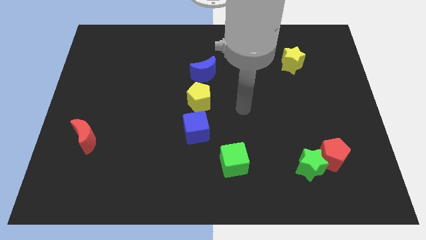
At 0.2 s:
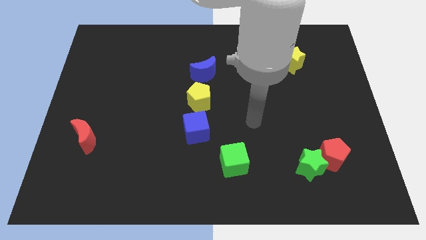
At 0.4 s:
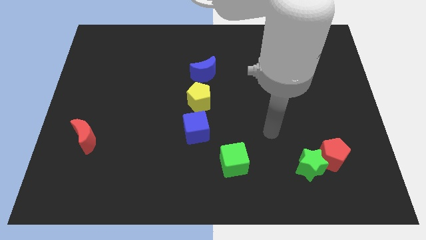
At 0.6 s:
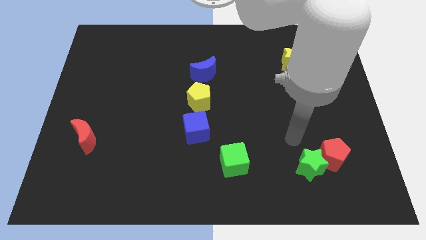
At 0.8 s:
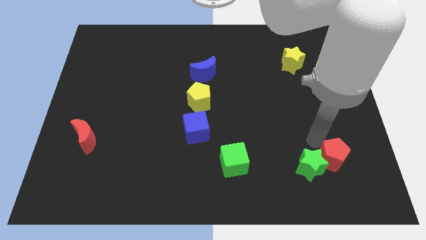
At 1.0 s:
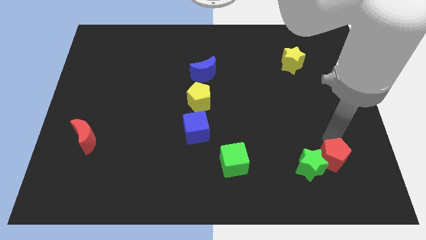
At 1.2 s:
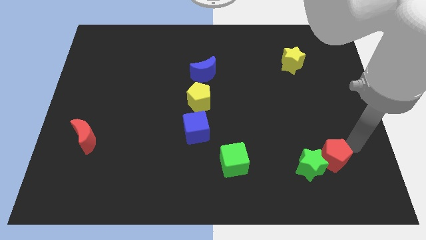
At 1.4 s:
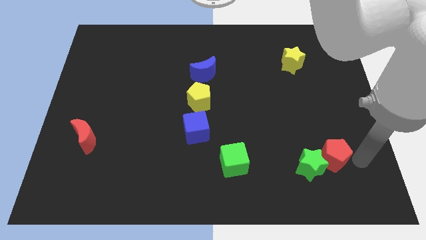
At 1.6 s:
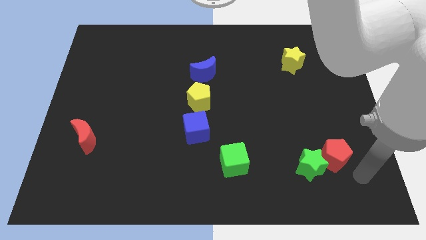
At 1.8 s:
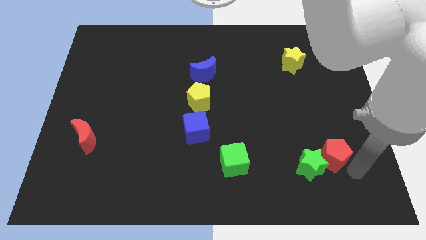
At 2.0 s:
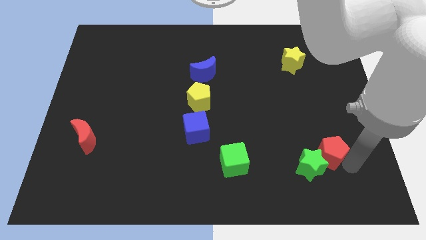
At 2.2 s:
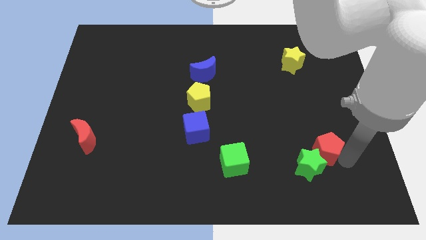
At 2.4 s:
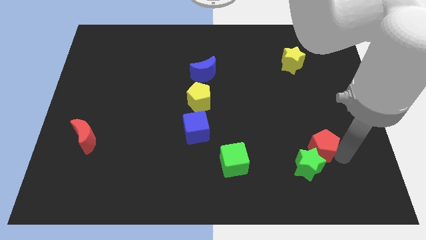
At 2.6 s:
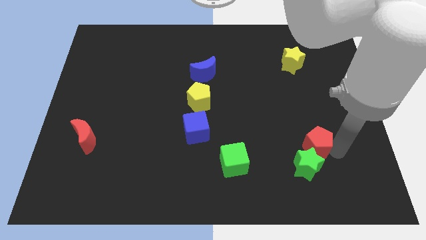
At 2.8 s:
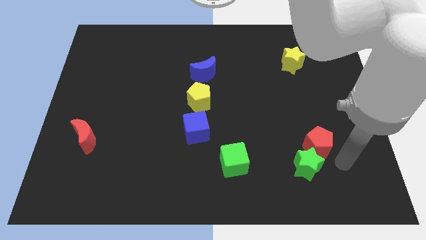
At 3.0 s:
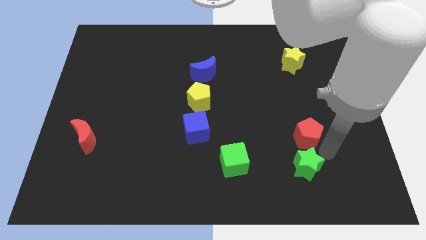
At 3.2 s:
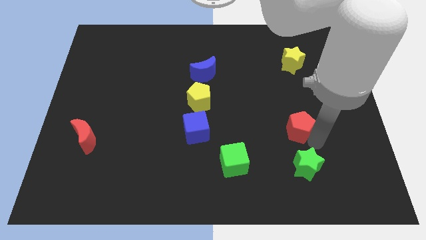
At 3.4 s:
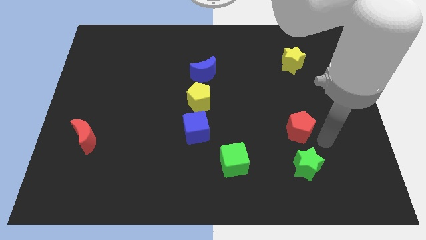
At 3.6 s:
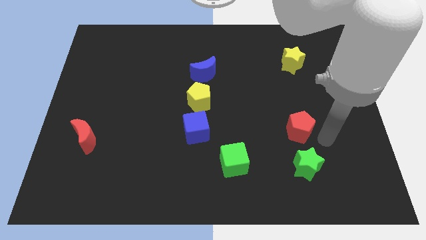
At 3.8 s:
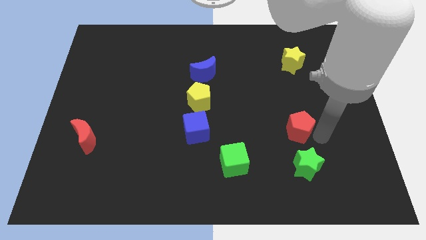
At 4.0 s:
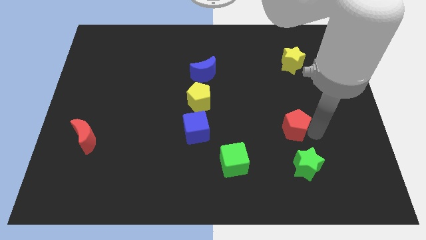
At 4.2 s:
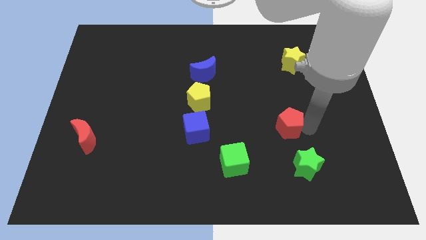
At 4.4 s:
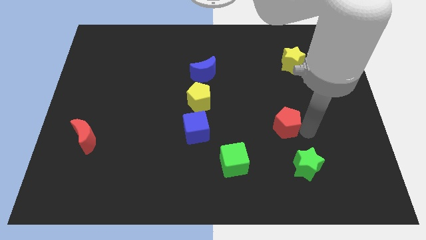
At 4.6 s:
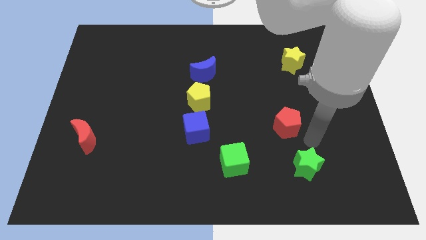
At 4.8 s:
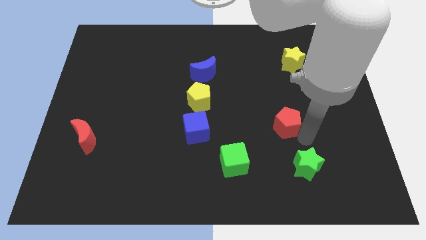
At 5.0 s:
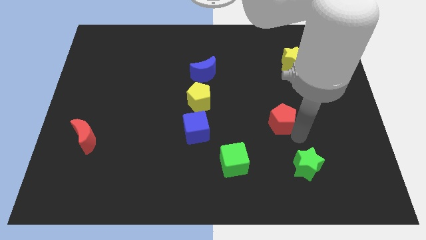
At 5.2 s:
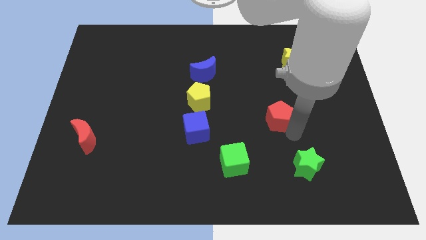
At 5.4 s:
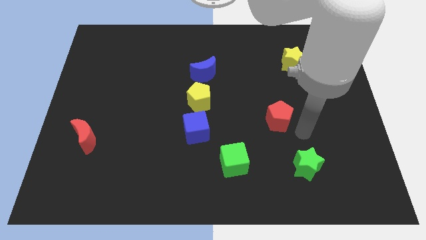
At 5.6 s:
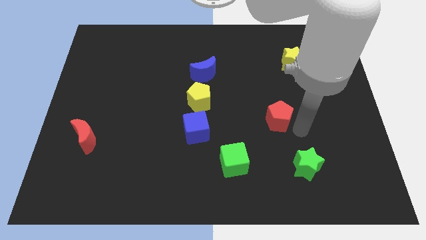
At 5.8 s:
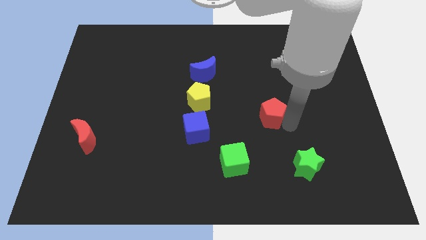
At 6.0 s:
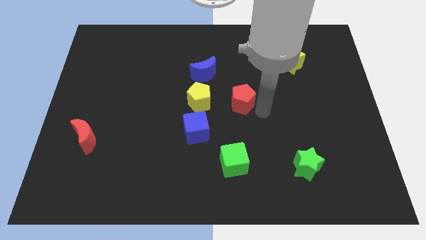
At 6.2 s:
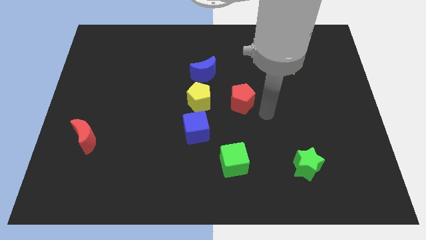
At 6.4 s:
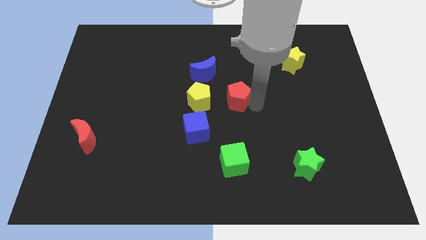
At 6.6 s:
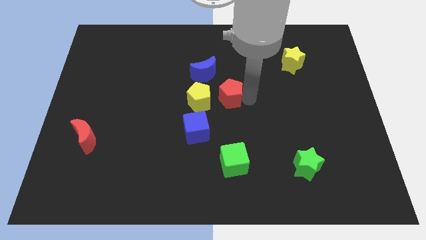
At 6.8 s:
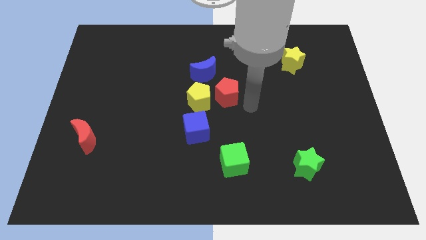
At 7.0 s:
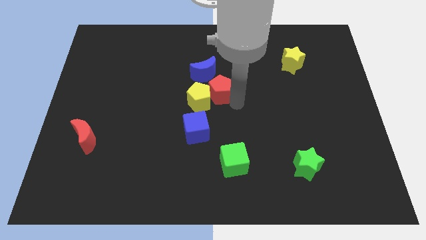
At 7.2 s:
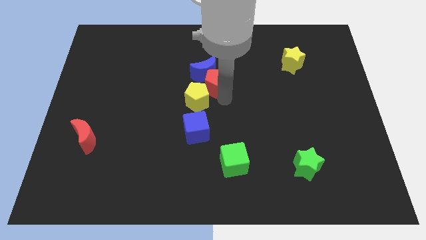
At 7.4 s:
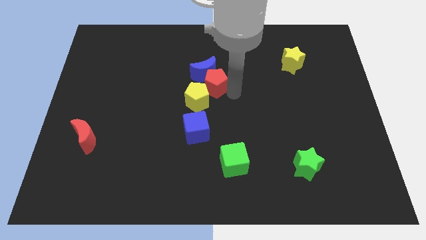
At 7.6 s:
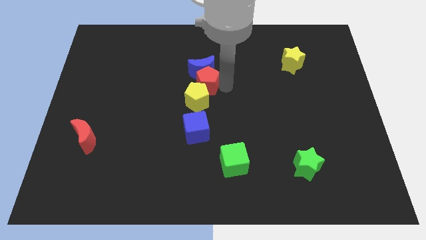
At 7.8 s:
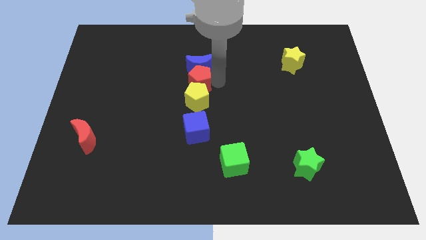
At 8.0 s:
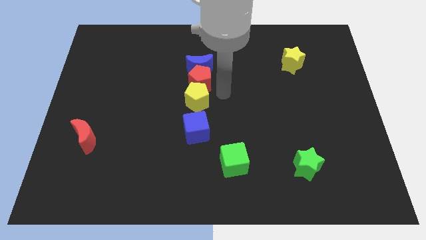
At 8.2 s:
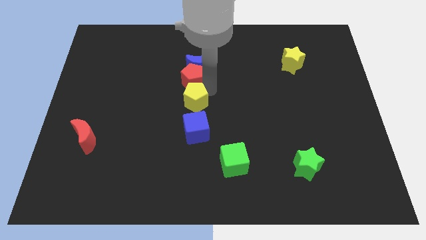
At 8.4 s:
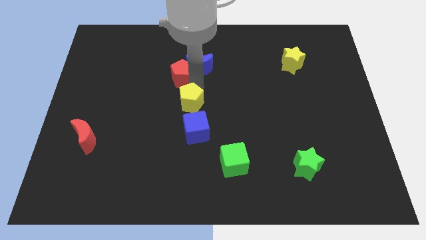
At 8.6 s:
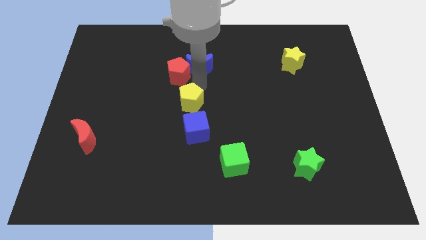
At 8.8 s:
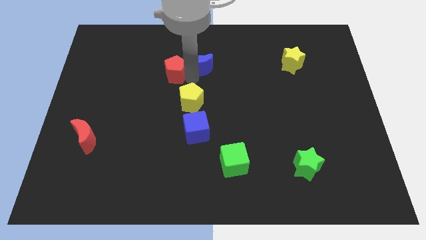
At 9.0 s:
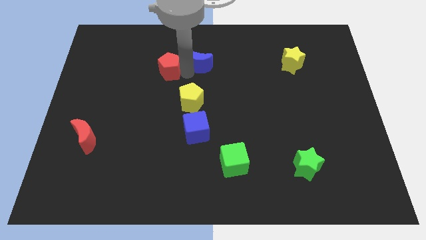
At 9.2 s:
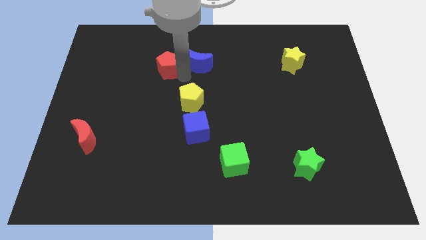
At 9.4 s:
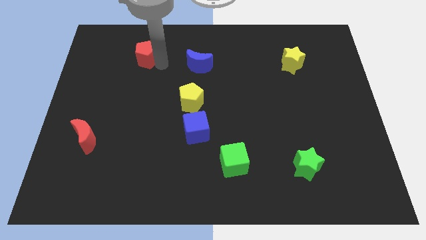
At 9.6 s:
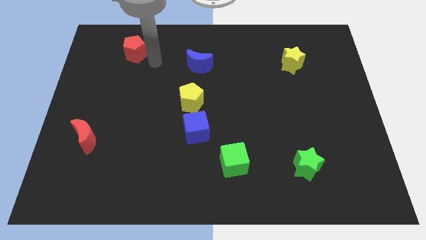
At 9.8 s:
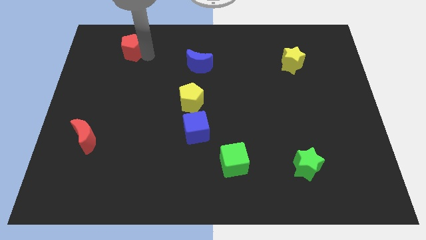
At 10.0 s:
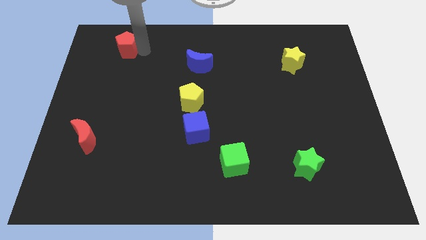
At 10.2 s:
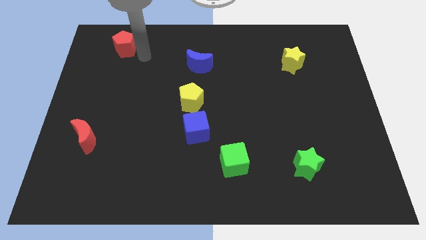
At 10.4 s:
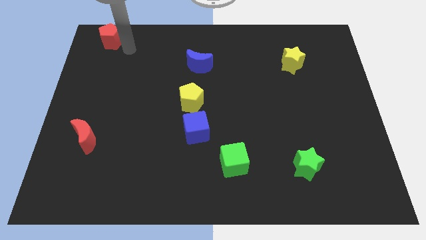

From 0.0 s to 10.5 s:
move the red pentagon to the top left
